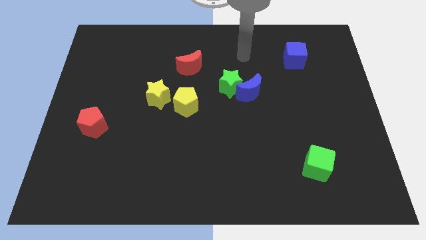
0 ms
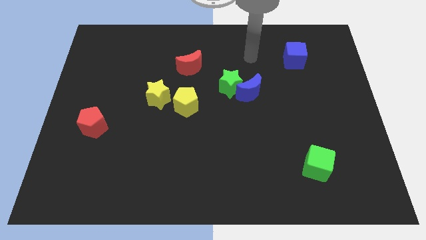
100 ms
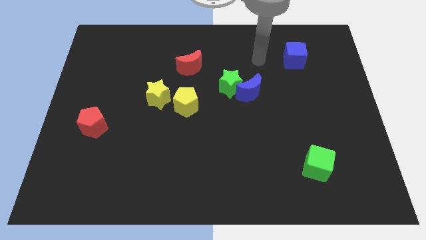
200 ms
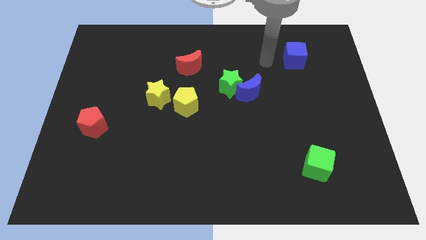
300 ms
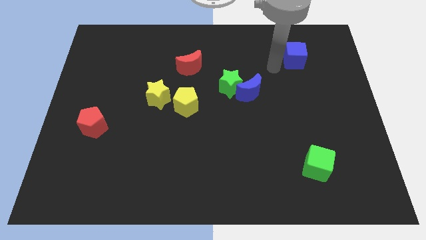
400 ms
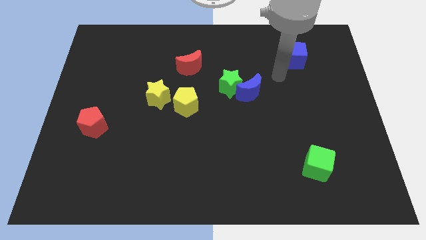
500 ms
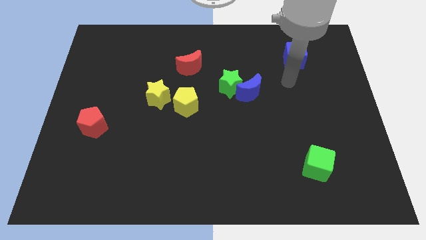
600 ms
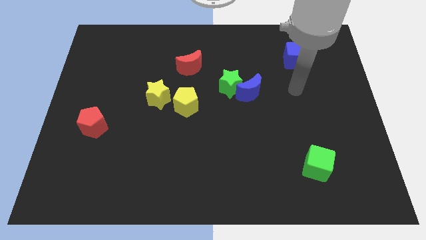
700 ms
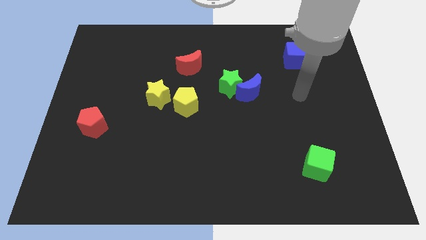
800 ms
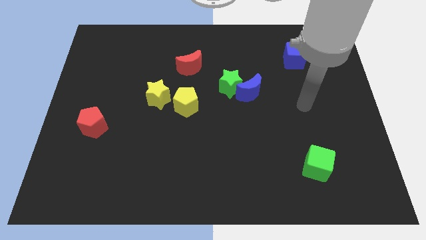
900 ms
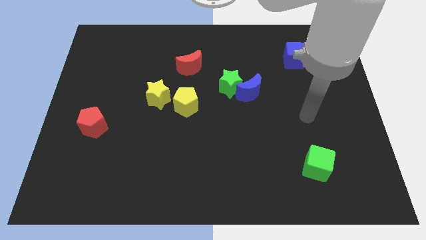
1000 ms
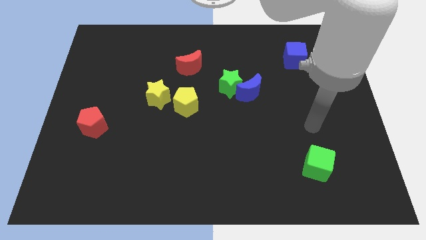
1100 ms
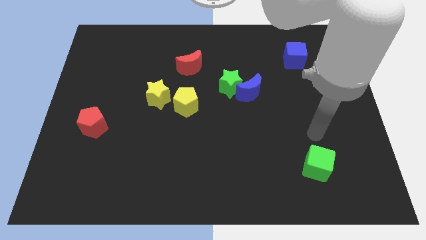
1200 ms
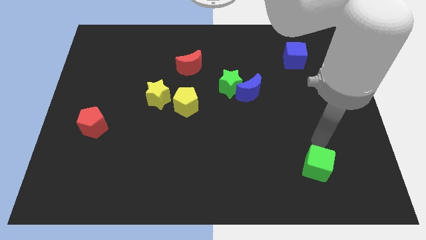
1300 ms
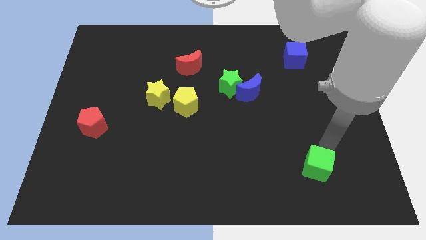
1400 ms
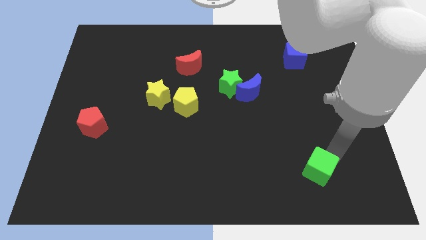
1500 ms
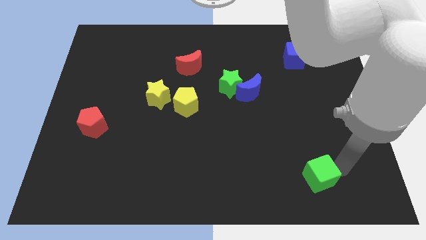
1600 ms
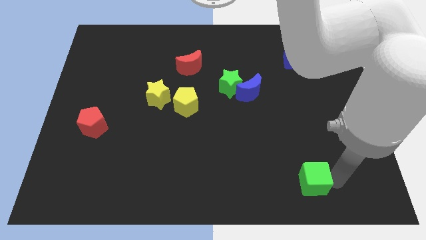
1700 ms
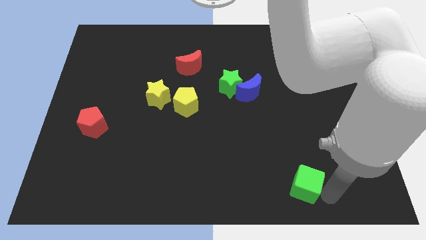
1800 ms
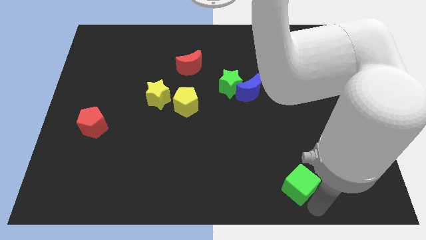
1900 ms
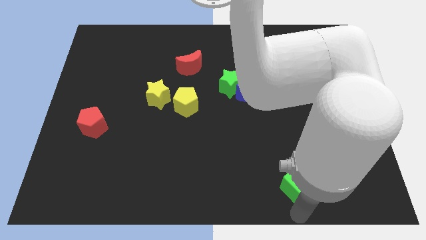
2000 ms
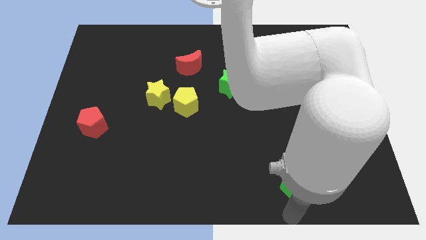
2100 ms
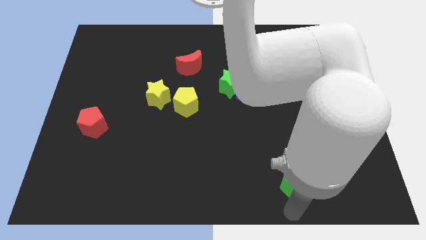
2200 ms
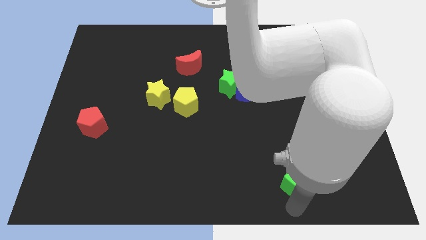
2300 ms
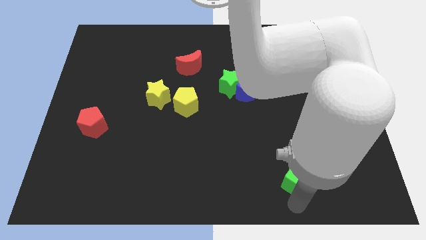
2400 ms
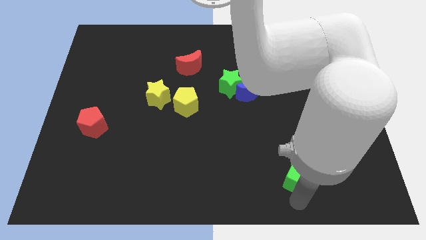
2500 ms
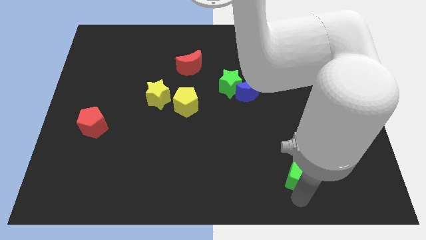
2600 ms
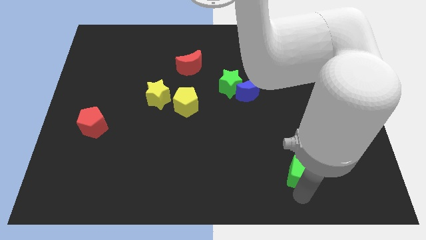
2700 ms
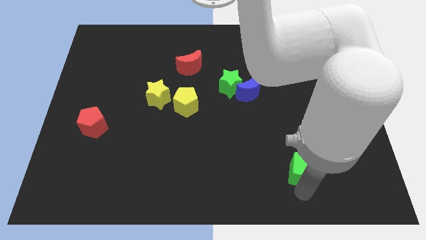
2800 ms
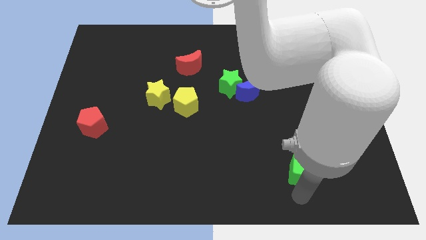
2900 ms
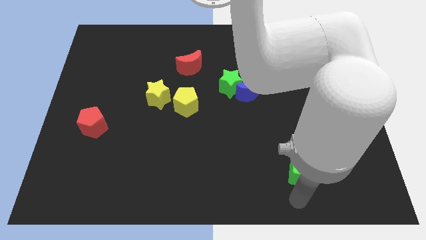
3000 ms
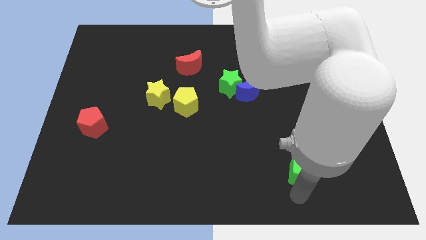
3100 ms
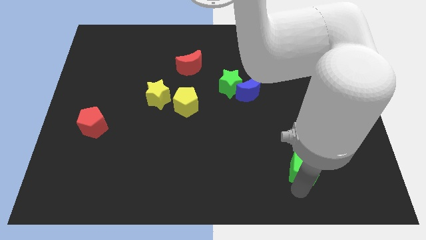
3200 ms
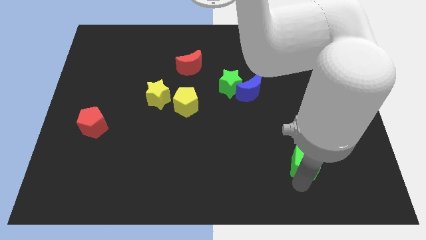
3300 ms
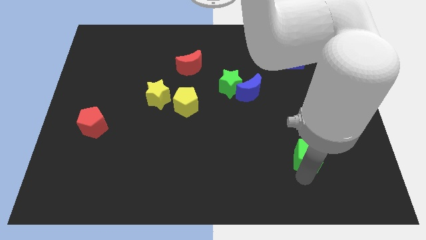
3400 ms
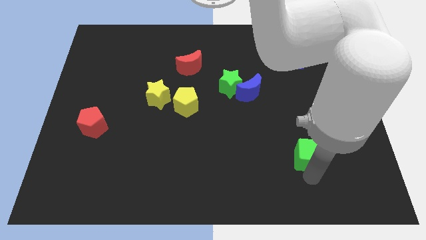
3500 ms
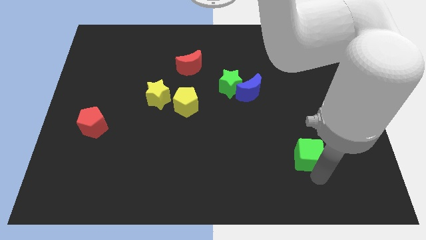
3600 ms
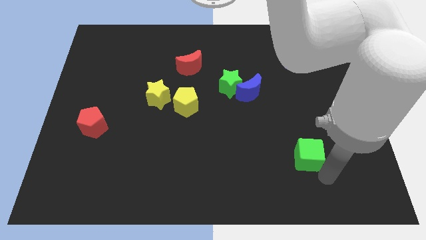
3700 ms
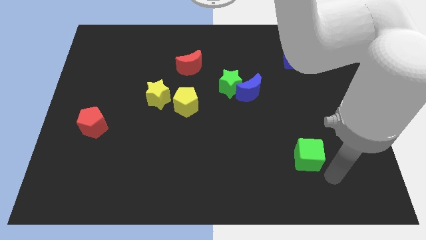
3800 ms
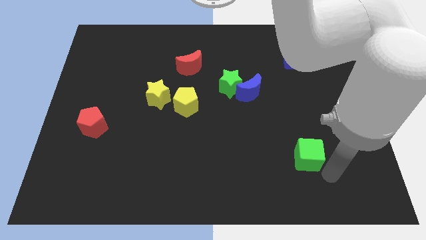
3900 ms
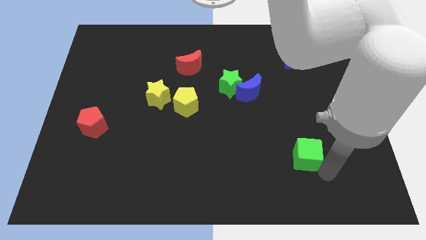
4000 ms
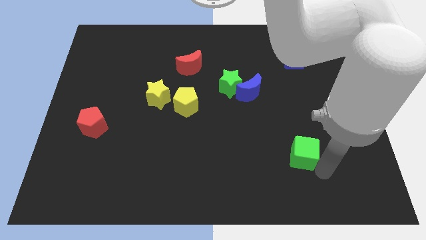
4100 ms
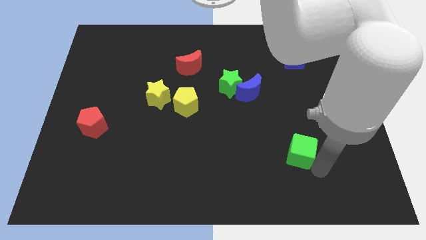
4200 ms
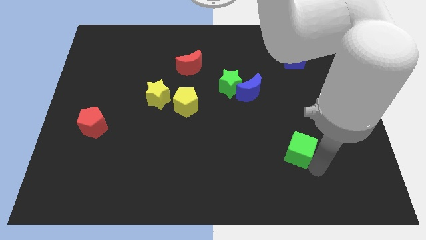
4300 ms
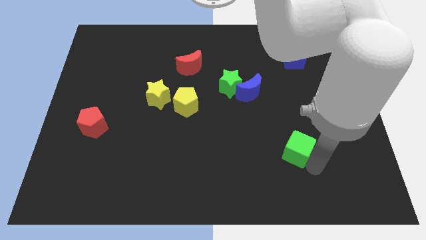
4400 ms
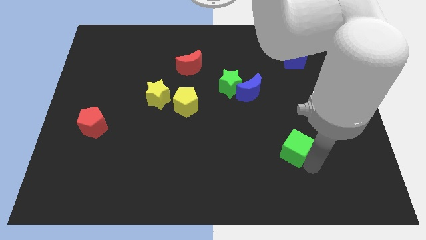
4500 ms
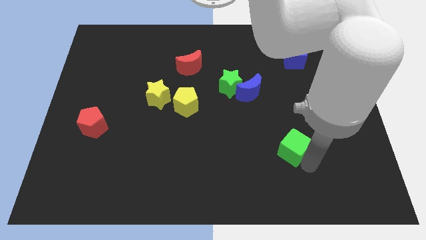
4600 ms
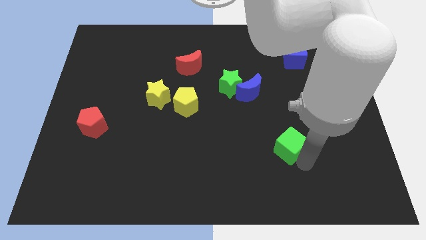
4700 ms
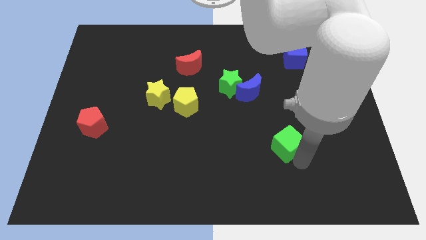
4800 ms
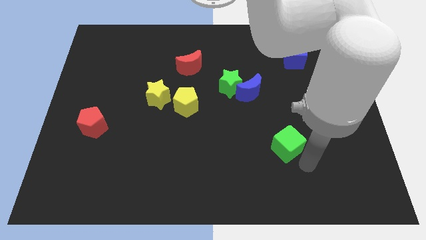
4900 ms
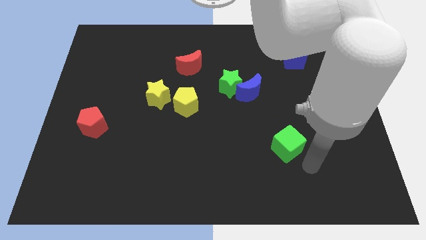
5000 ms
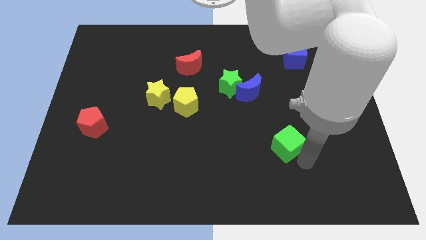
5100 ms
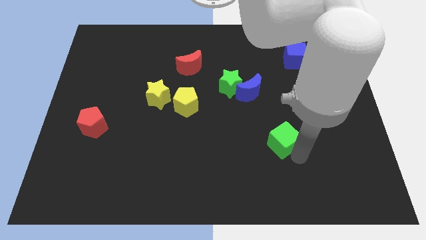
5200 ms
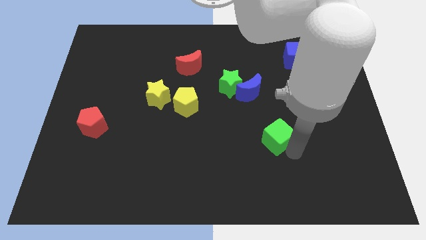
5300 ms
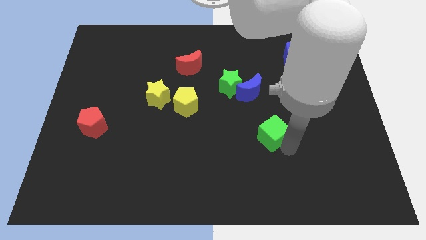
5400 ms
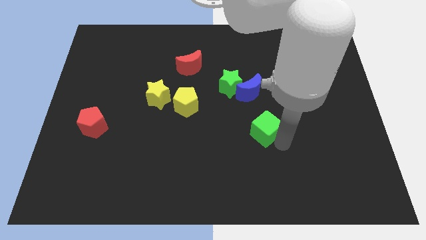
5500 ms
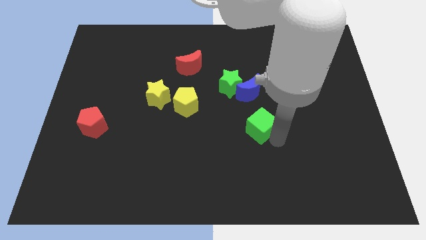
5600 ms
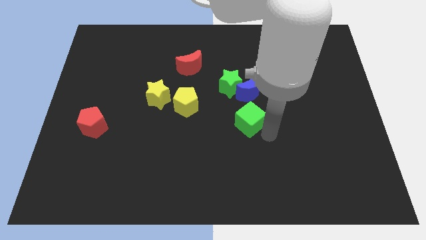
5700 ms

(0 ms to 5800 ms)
put the green cube to the middle

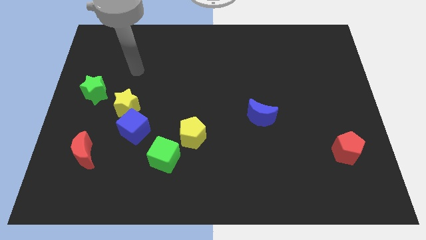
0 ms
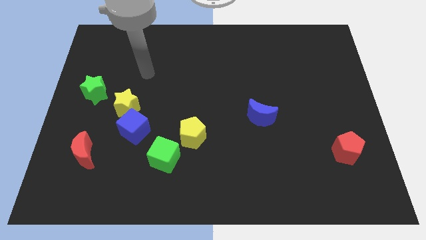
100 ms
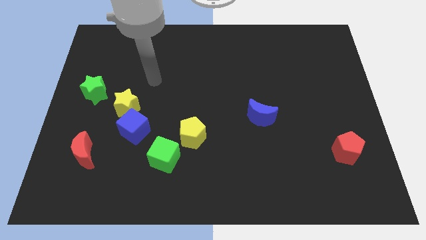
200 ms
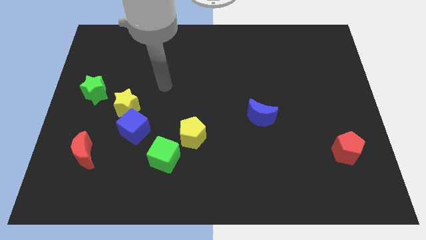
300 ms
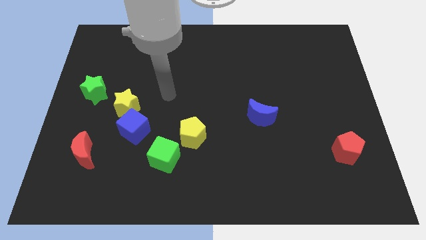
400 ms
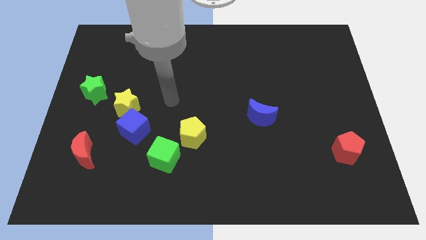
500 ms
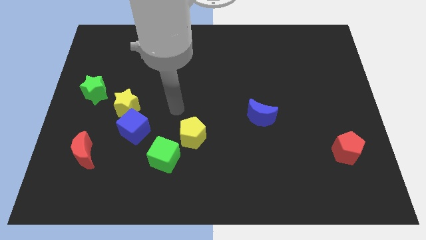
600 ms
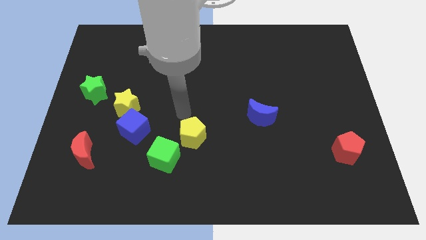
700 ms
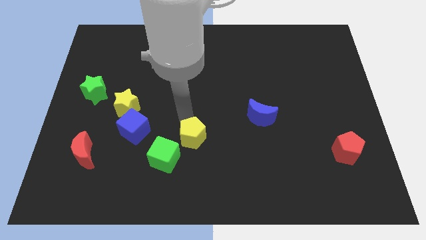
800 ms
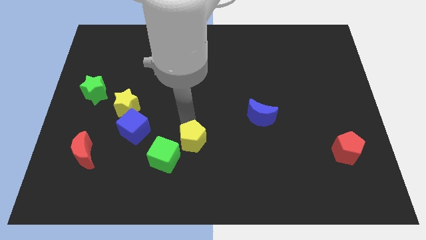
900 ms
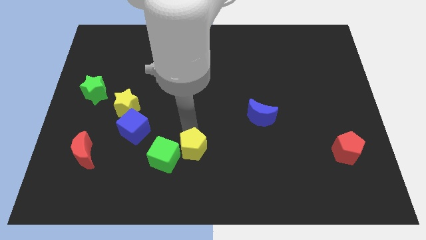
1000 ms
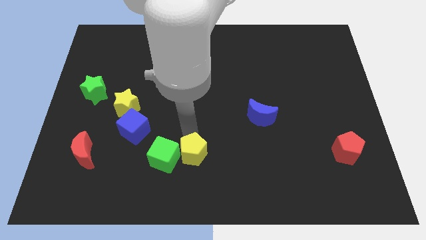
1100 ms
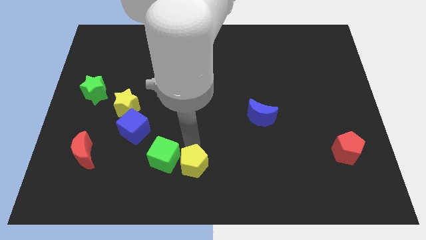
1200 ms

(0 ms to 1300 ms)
move the yellow pentagon to the bottom side
